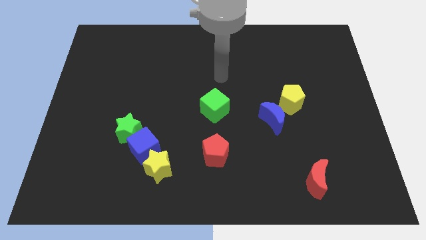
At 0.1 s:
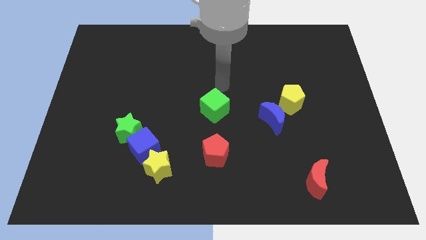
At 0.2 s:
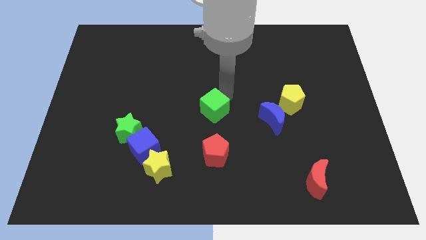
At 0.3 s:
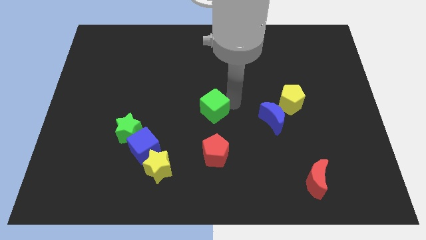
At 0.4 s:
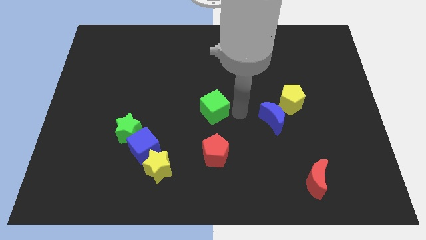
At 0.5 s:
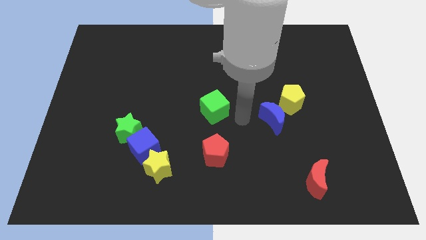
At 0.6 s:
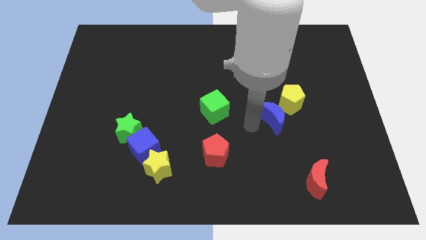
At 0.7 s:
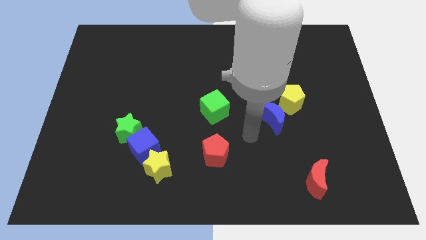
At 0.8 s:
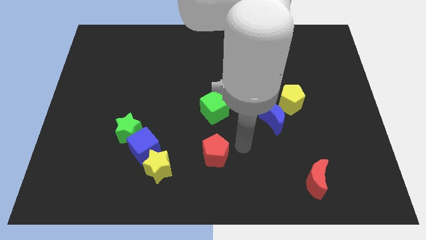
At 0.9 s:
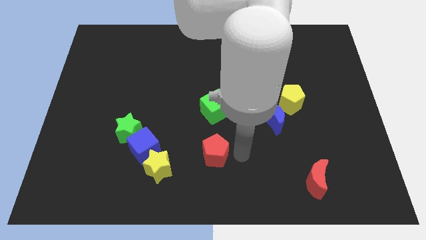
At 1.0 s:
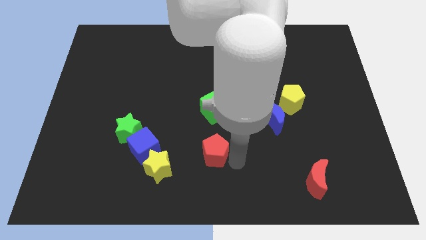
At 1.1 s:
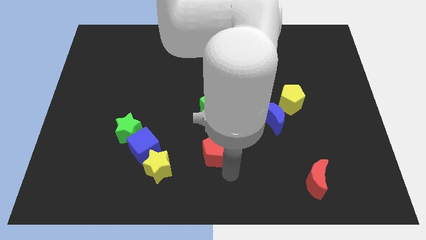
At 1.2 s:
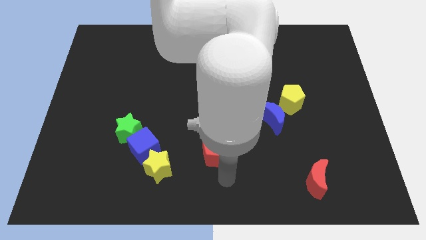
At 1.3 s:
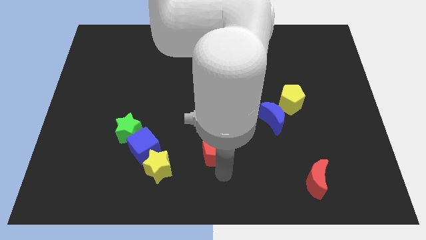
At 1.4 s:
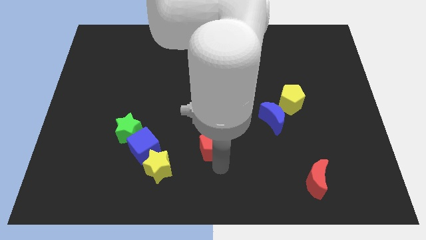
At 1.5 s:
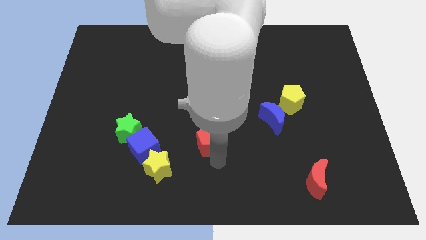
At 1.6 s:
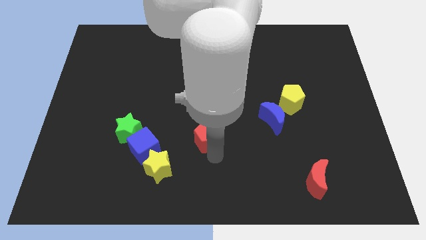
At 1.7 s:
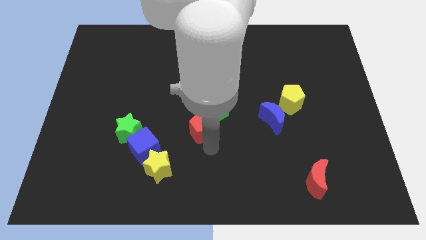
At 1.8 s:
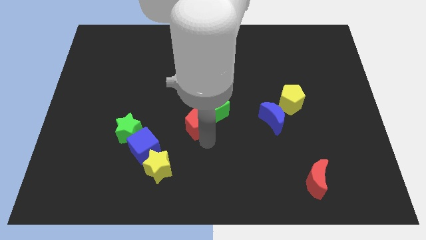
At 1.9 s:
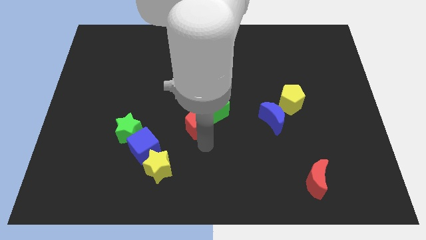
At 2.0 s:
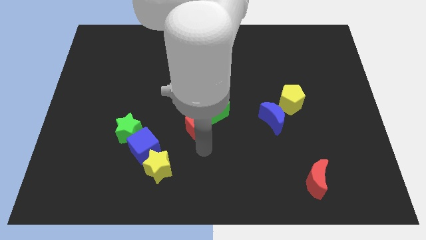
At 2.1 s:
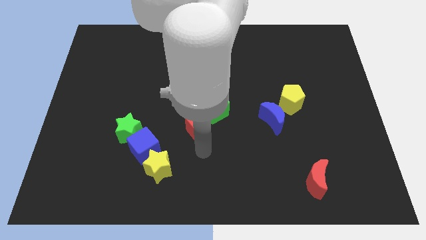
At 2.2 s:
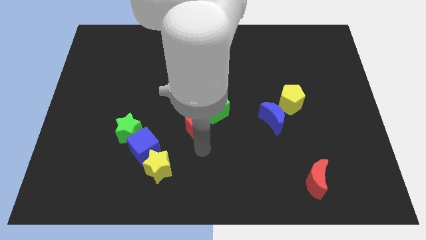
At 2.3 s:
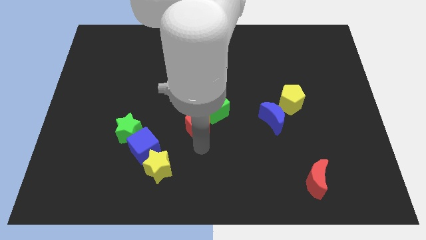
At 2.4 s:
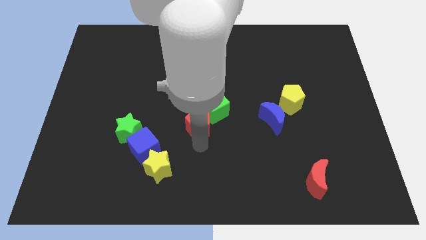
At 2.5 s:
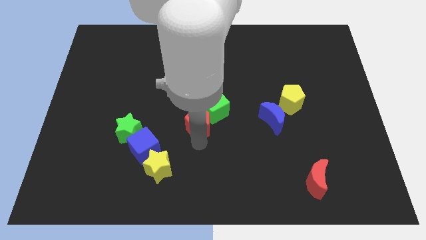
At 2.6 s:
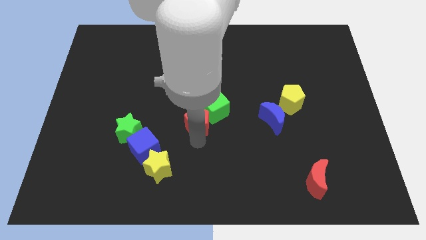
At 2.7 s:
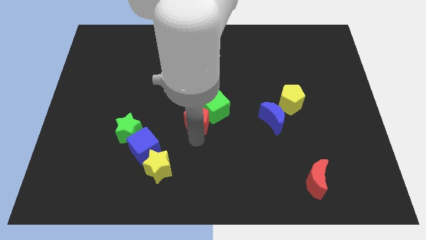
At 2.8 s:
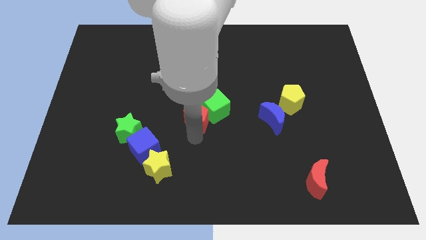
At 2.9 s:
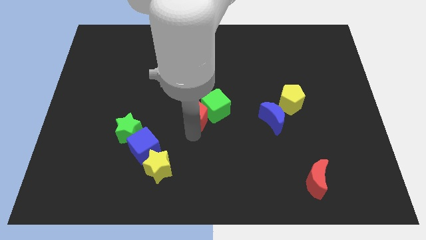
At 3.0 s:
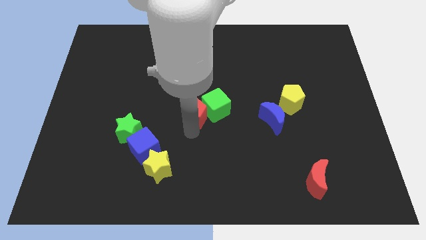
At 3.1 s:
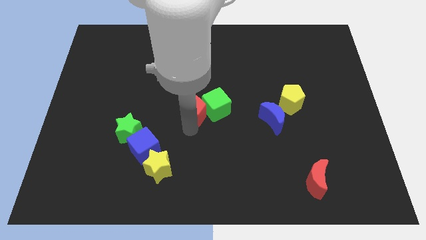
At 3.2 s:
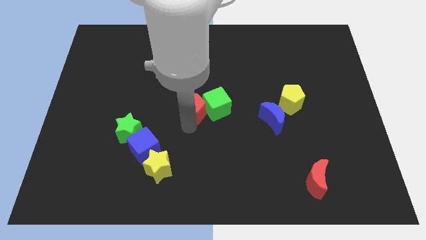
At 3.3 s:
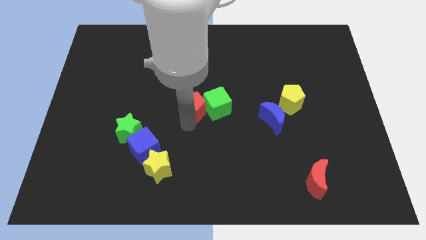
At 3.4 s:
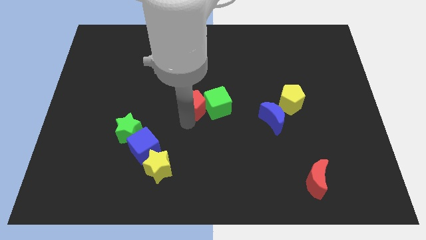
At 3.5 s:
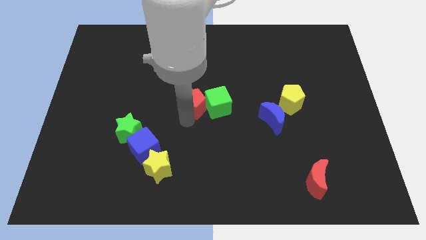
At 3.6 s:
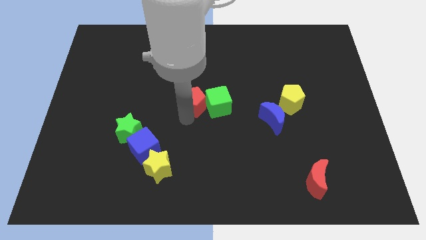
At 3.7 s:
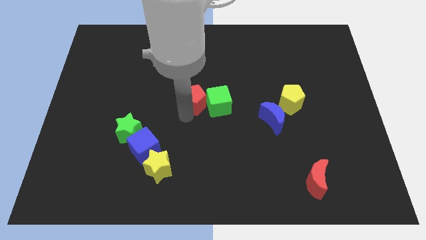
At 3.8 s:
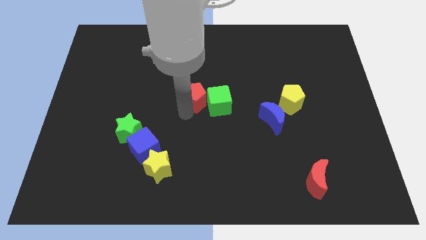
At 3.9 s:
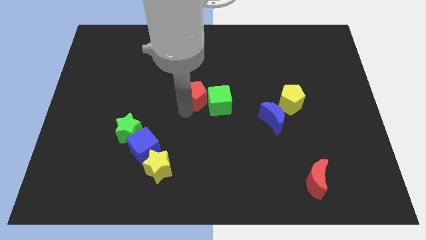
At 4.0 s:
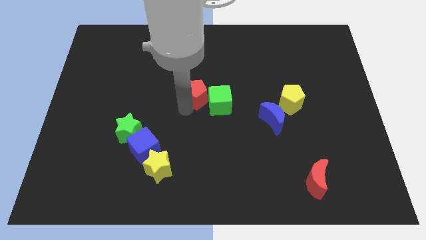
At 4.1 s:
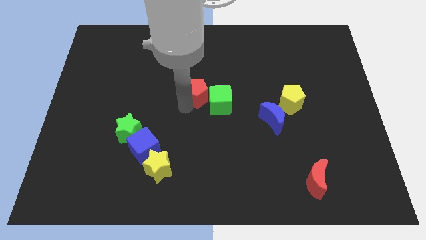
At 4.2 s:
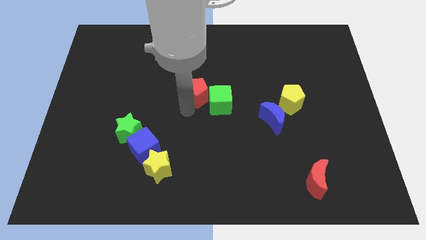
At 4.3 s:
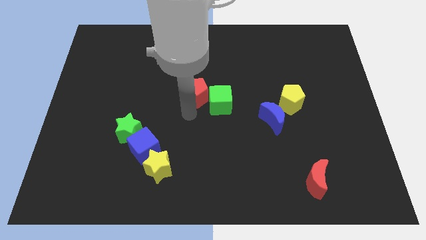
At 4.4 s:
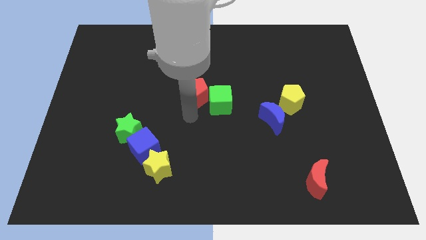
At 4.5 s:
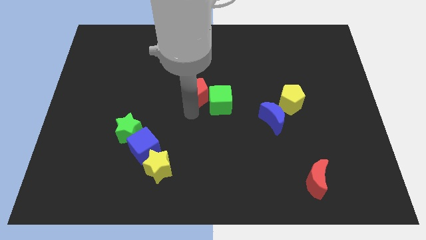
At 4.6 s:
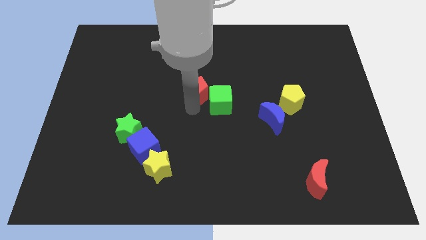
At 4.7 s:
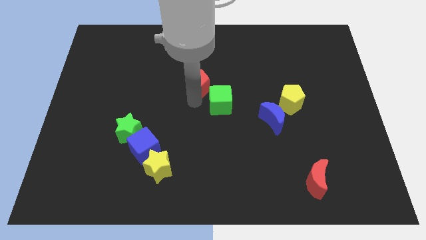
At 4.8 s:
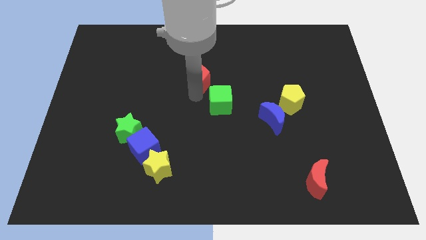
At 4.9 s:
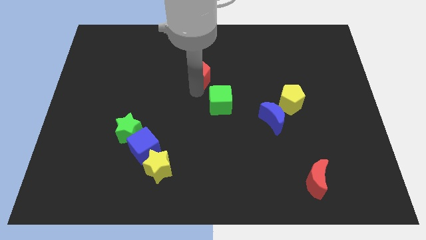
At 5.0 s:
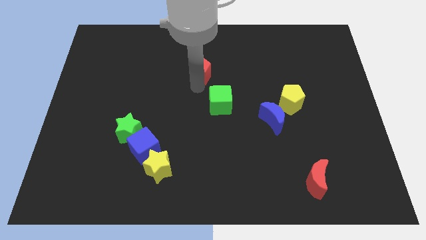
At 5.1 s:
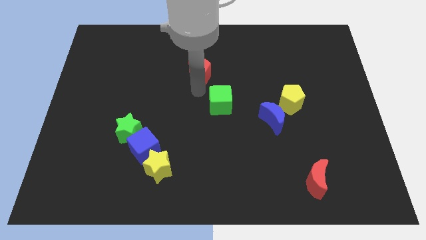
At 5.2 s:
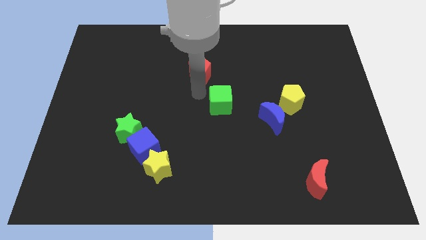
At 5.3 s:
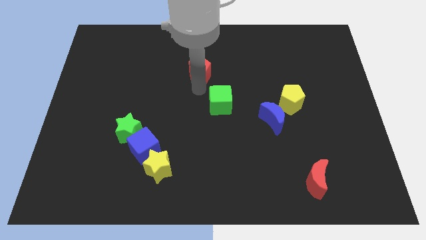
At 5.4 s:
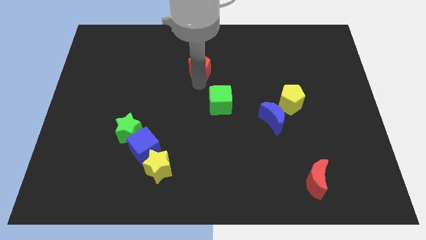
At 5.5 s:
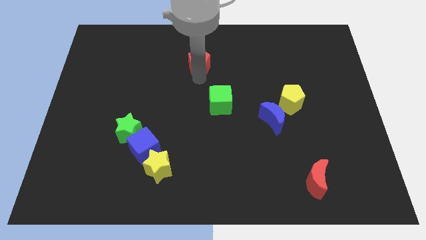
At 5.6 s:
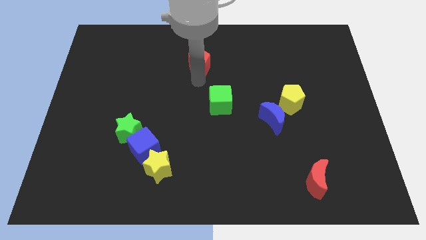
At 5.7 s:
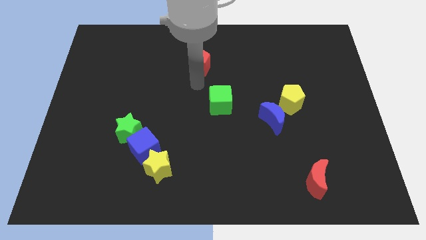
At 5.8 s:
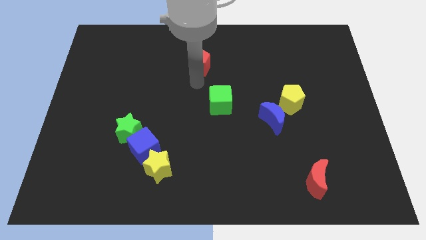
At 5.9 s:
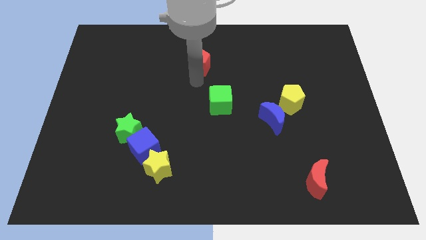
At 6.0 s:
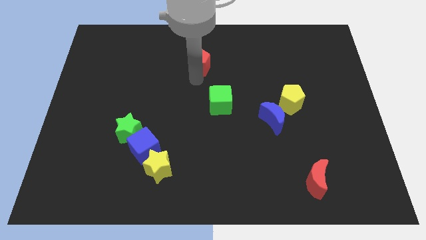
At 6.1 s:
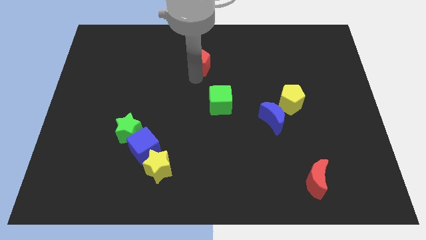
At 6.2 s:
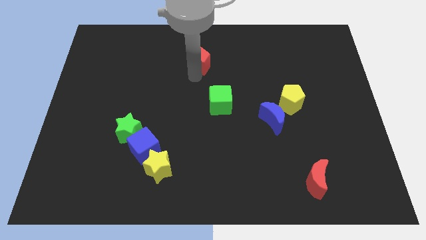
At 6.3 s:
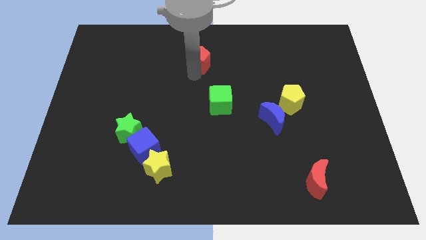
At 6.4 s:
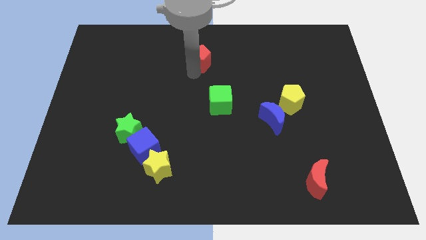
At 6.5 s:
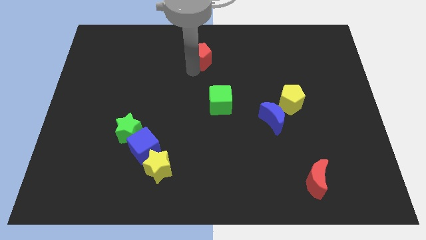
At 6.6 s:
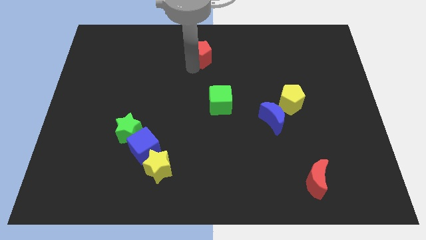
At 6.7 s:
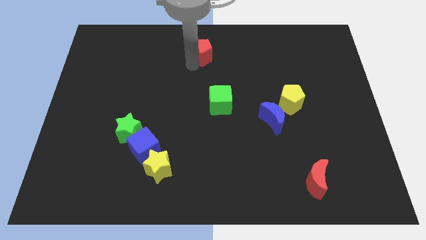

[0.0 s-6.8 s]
move the red pentagon to the top side
